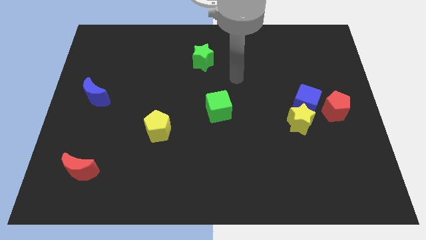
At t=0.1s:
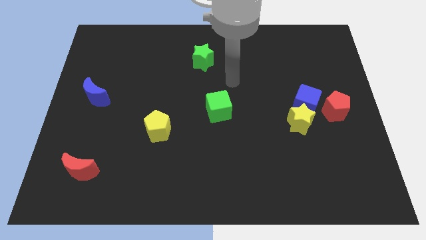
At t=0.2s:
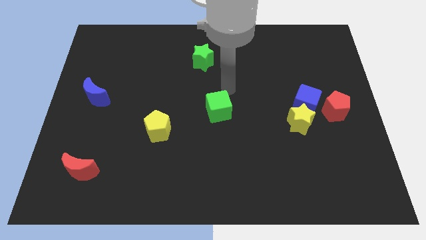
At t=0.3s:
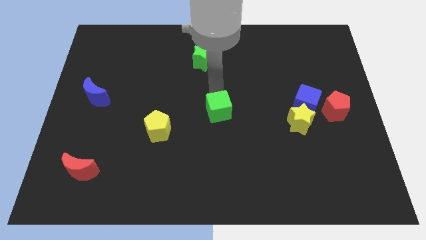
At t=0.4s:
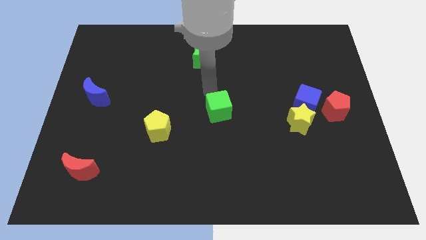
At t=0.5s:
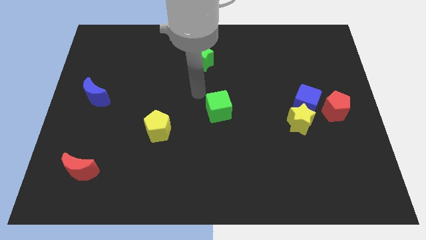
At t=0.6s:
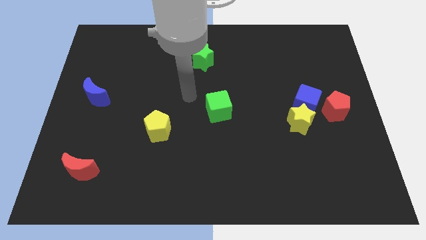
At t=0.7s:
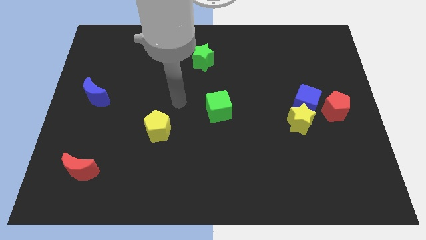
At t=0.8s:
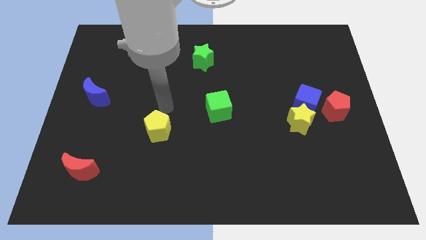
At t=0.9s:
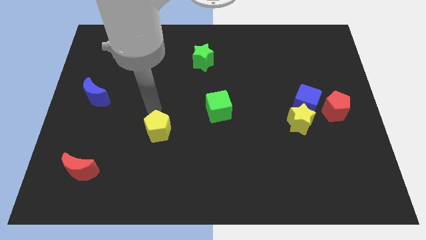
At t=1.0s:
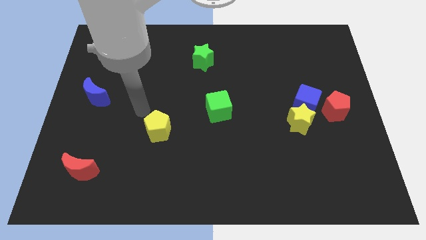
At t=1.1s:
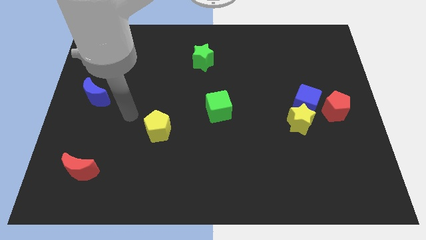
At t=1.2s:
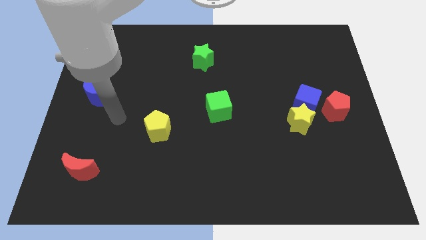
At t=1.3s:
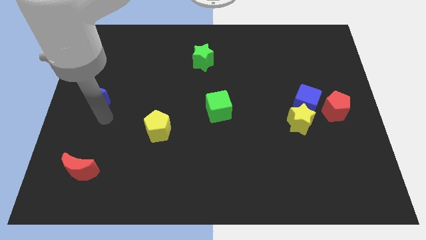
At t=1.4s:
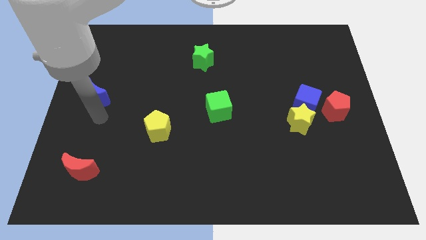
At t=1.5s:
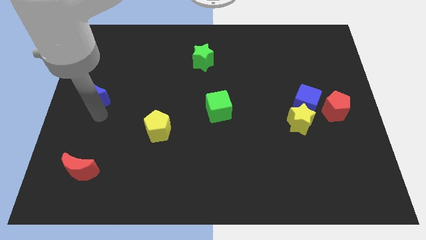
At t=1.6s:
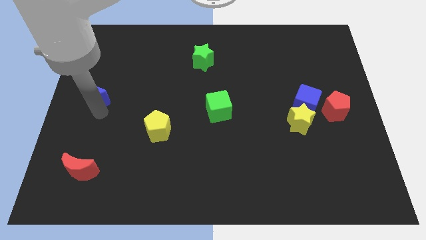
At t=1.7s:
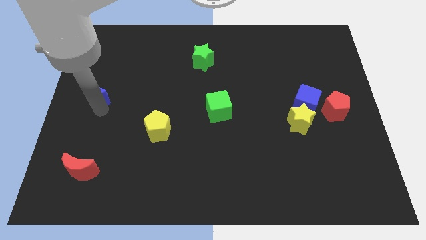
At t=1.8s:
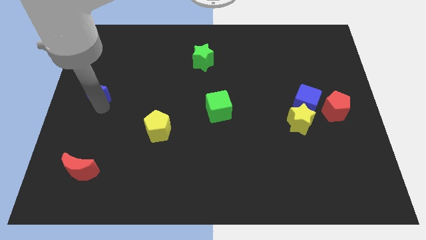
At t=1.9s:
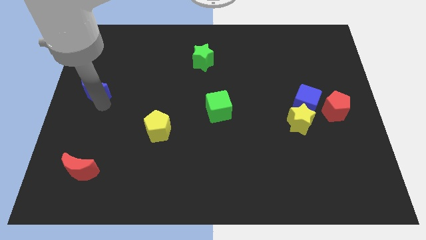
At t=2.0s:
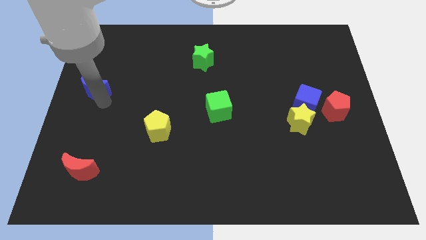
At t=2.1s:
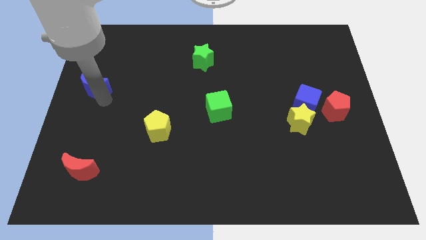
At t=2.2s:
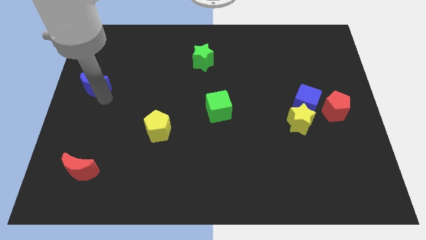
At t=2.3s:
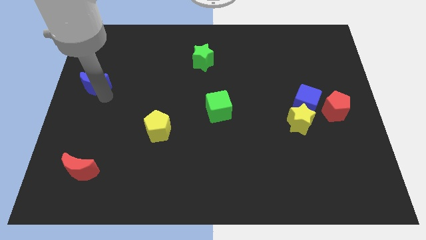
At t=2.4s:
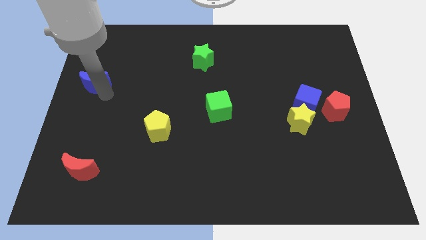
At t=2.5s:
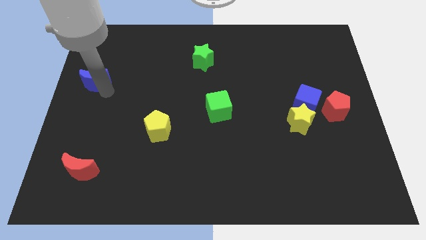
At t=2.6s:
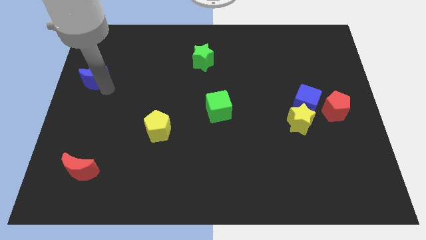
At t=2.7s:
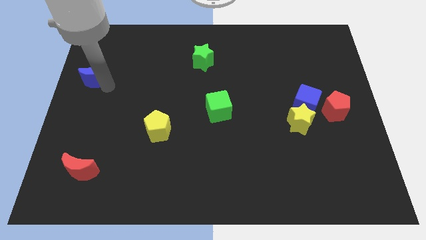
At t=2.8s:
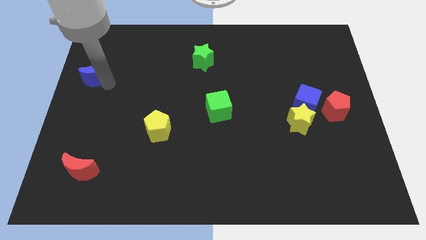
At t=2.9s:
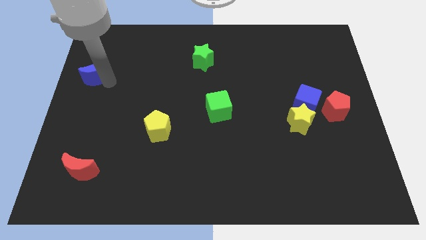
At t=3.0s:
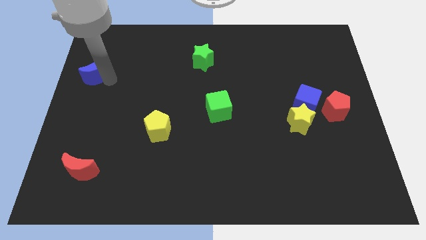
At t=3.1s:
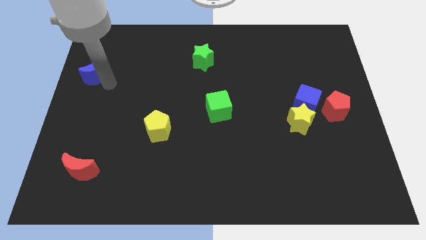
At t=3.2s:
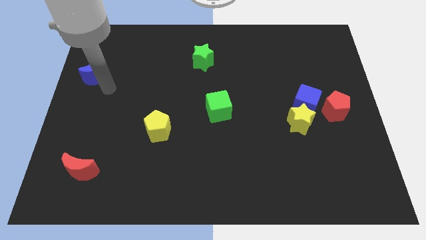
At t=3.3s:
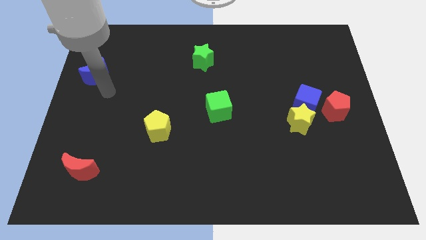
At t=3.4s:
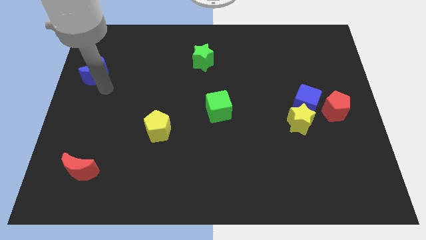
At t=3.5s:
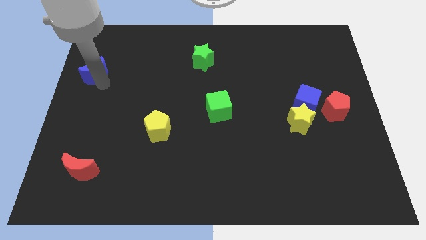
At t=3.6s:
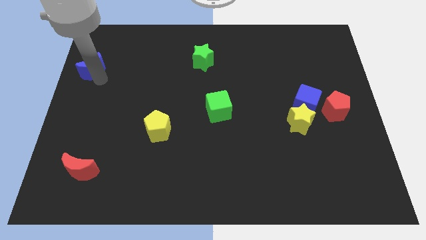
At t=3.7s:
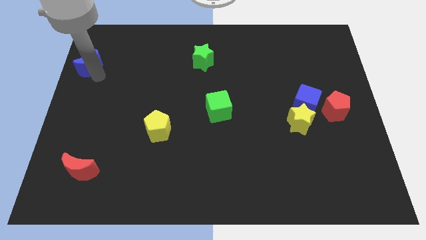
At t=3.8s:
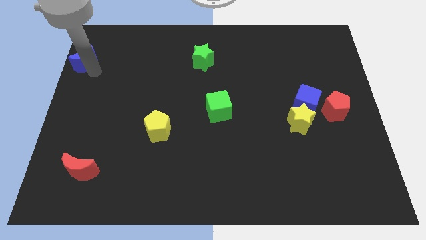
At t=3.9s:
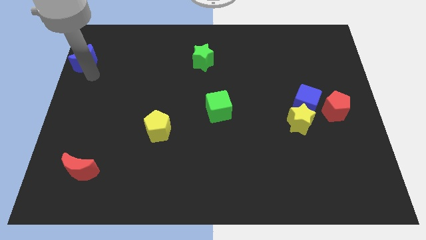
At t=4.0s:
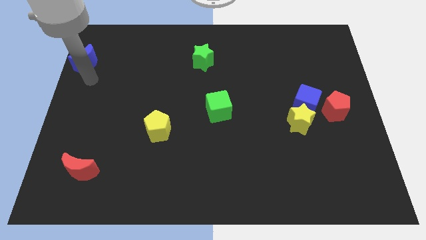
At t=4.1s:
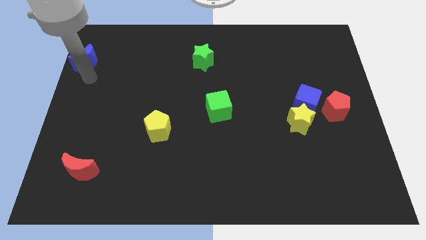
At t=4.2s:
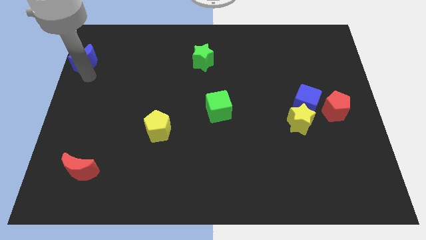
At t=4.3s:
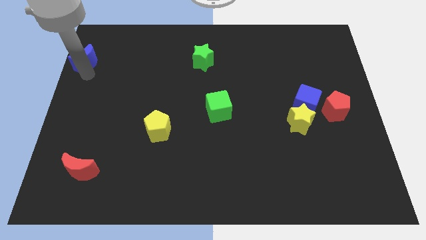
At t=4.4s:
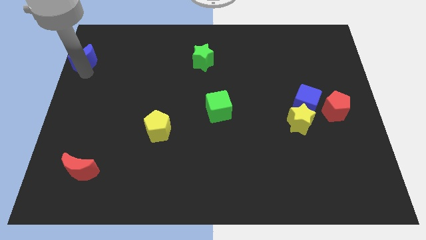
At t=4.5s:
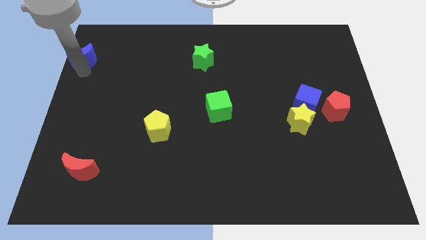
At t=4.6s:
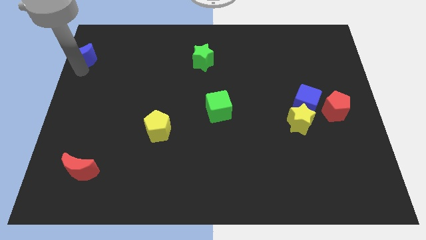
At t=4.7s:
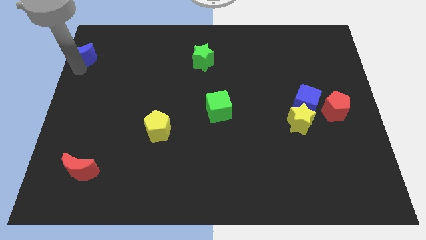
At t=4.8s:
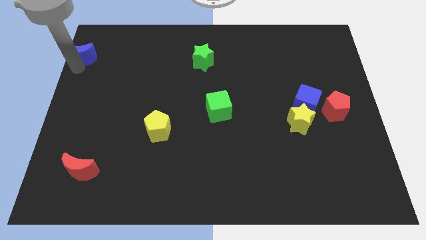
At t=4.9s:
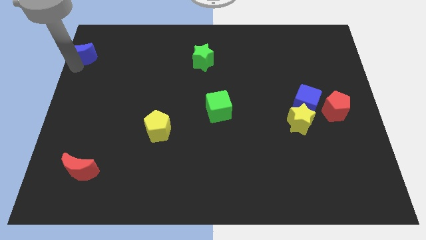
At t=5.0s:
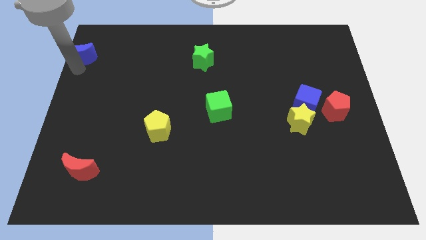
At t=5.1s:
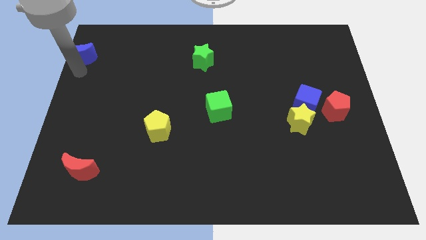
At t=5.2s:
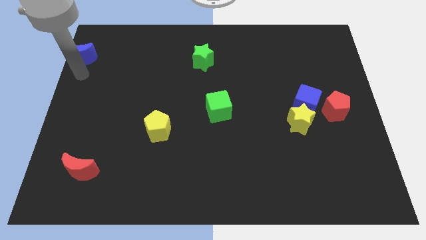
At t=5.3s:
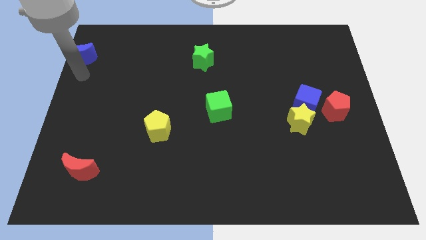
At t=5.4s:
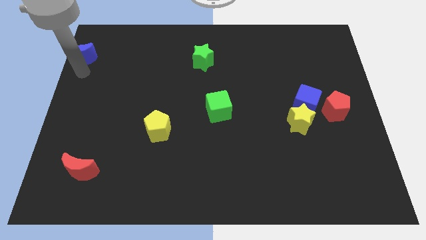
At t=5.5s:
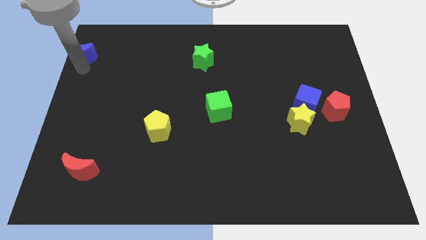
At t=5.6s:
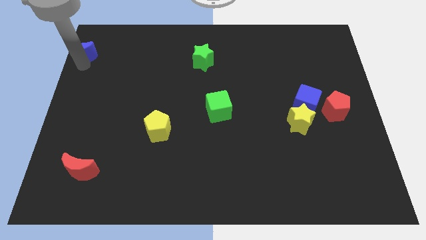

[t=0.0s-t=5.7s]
slide the blue moon to the top left

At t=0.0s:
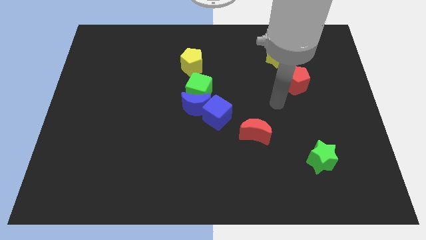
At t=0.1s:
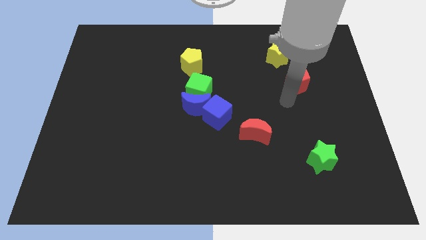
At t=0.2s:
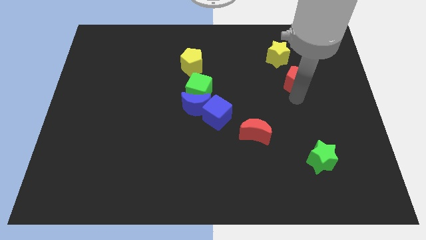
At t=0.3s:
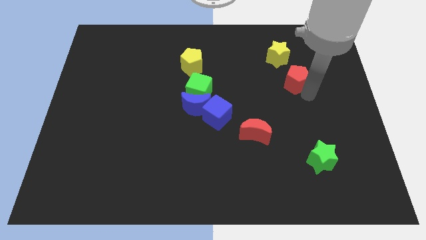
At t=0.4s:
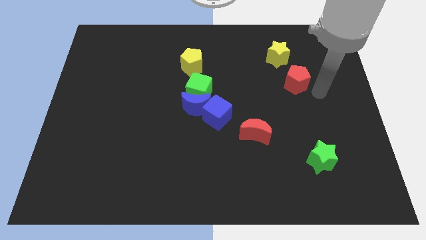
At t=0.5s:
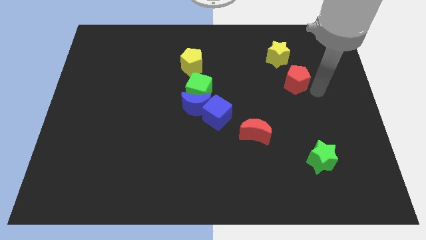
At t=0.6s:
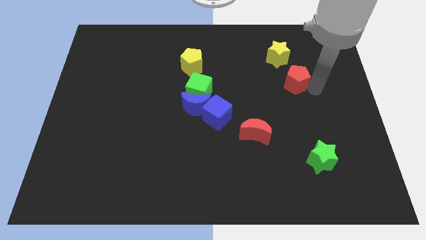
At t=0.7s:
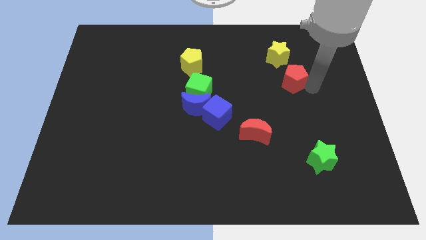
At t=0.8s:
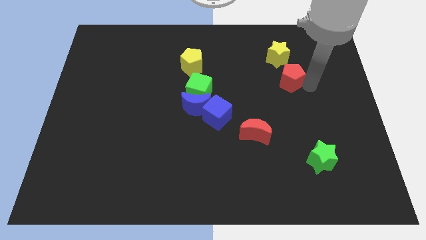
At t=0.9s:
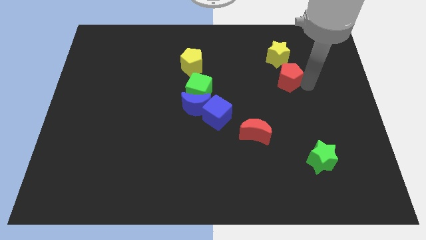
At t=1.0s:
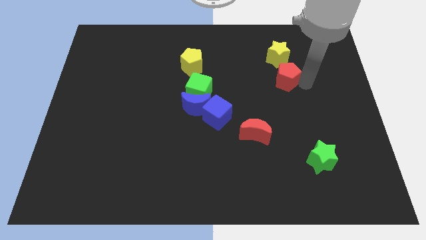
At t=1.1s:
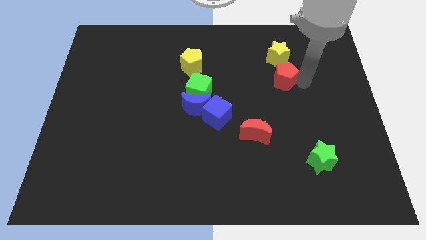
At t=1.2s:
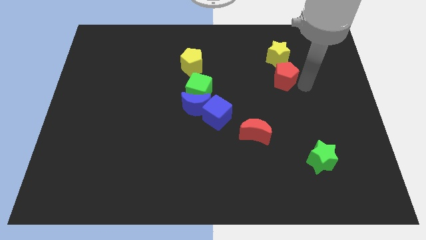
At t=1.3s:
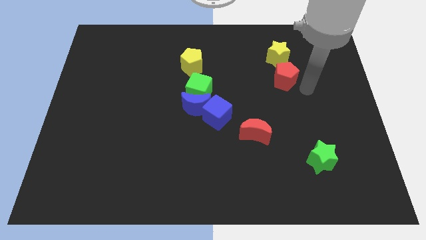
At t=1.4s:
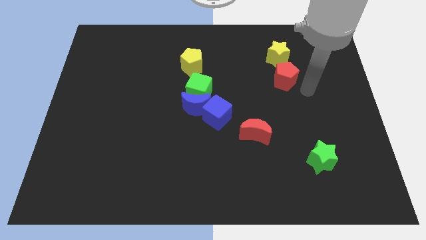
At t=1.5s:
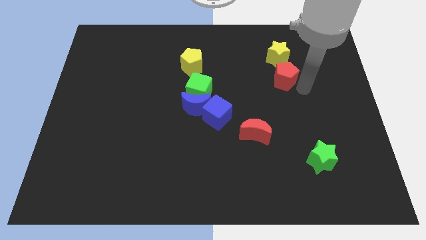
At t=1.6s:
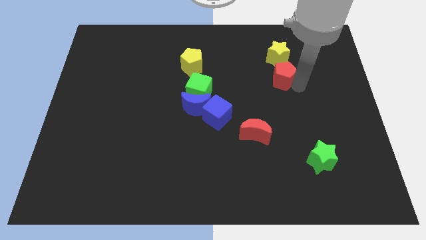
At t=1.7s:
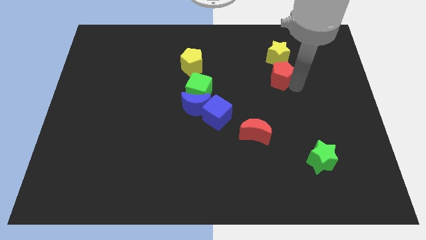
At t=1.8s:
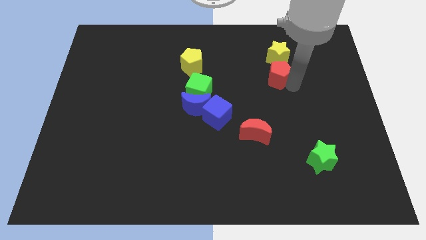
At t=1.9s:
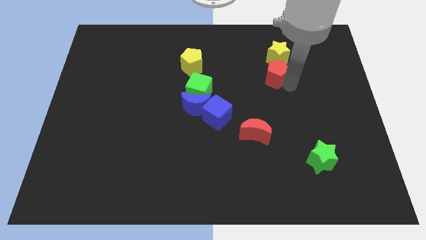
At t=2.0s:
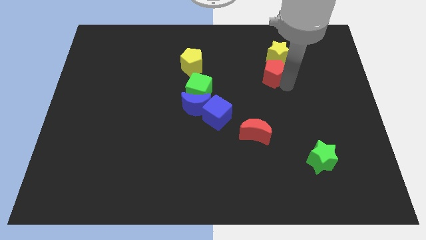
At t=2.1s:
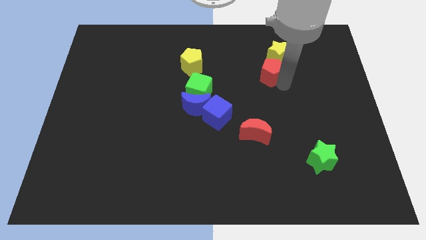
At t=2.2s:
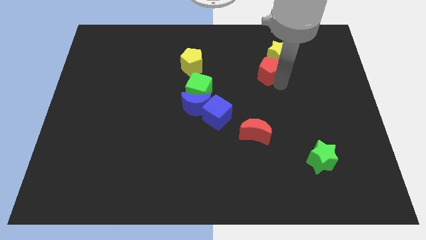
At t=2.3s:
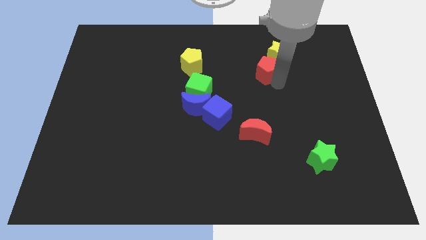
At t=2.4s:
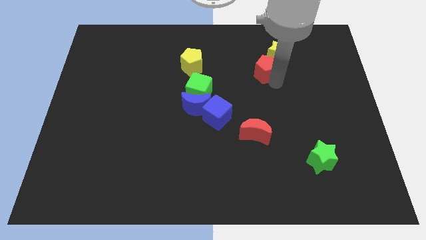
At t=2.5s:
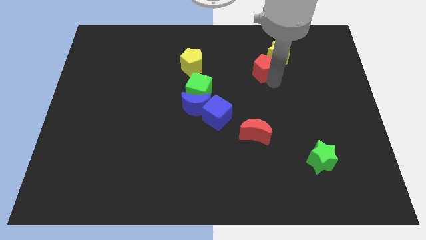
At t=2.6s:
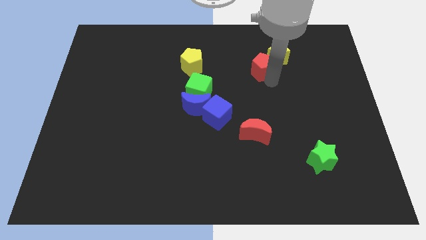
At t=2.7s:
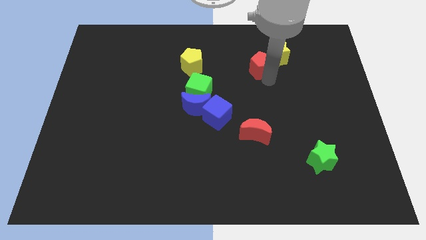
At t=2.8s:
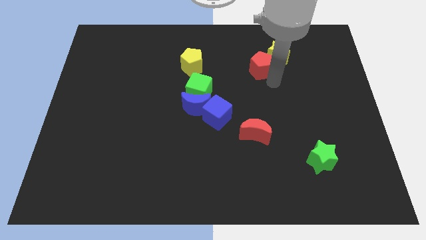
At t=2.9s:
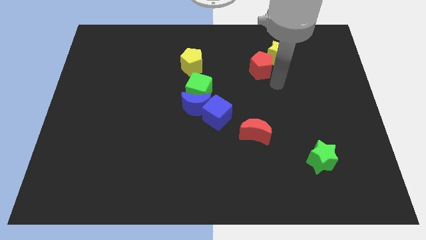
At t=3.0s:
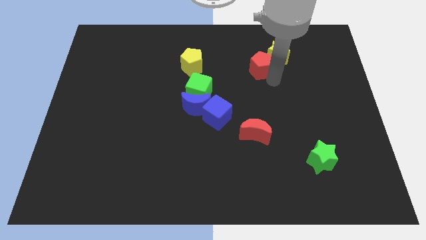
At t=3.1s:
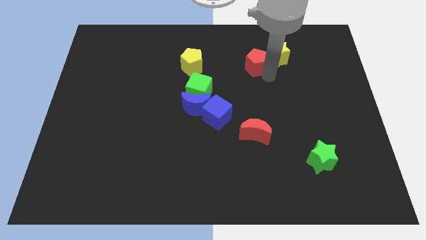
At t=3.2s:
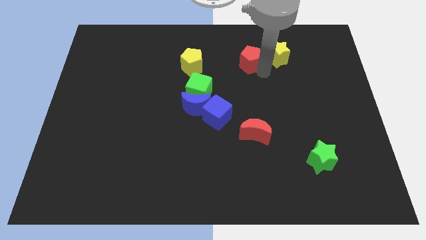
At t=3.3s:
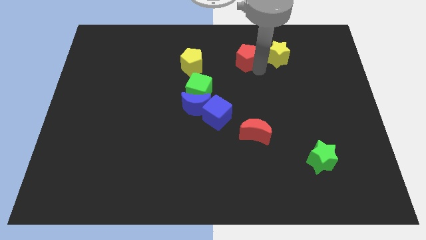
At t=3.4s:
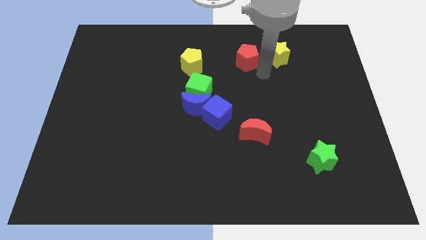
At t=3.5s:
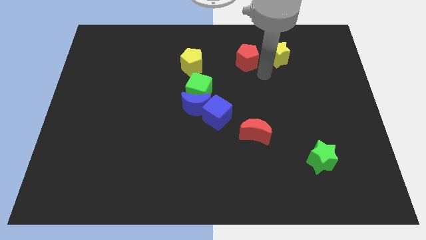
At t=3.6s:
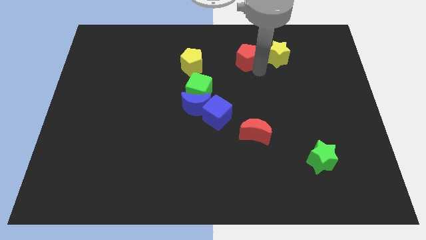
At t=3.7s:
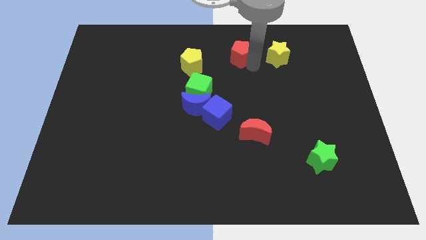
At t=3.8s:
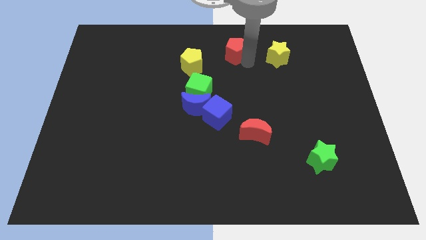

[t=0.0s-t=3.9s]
slide the red pentagon to the top side
